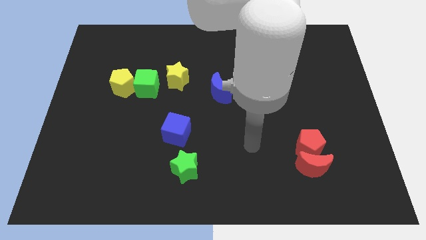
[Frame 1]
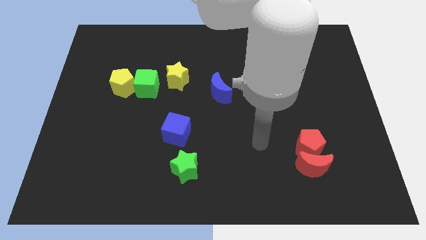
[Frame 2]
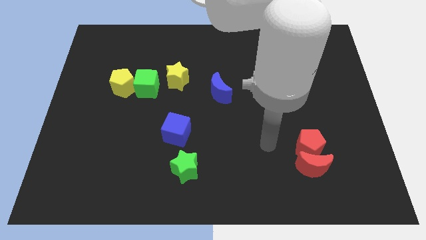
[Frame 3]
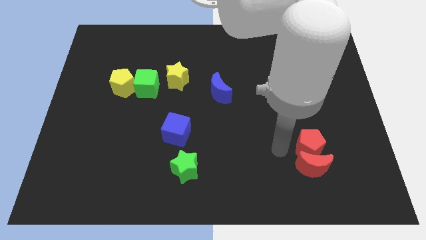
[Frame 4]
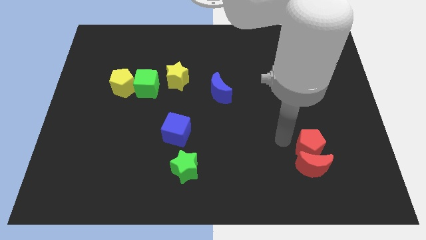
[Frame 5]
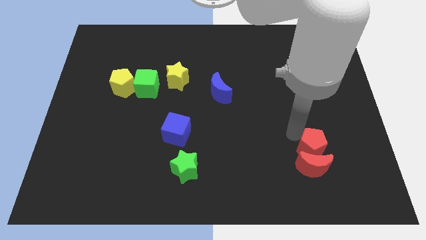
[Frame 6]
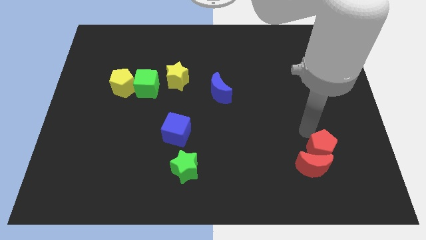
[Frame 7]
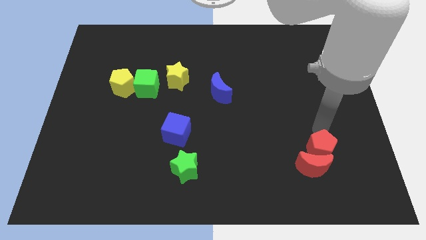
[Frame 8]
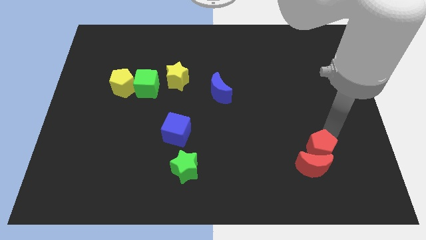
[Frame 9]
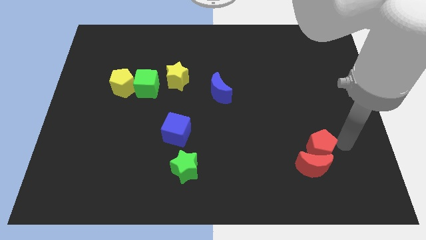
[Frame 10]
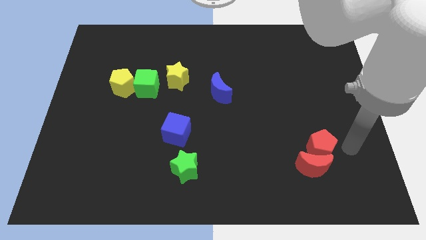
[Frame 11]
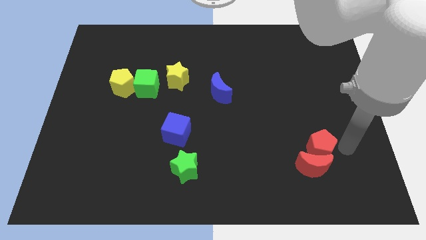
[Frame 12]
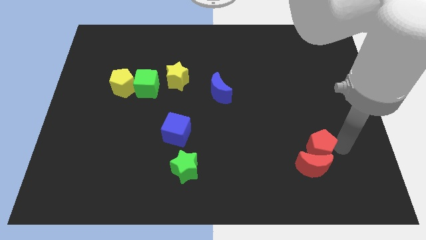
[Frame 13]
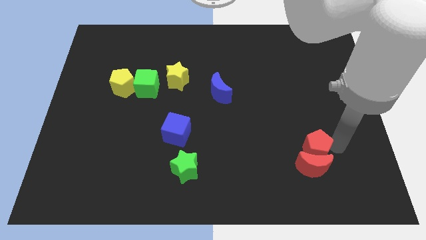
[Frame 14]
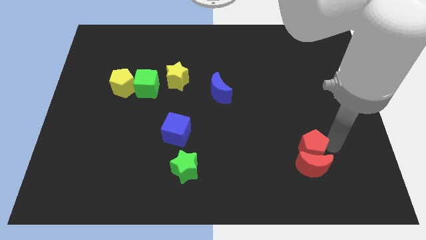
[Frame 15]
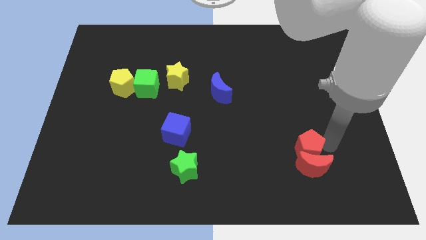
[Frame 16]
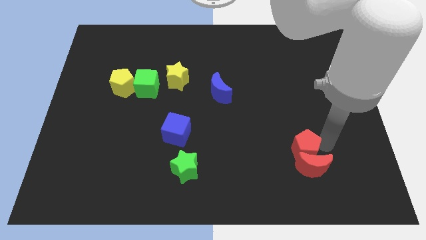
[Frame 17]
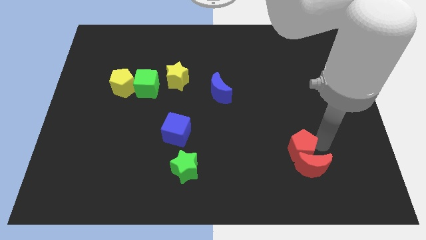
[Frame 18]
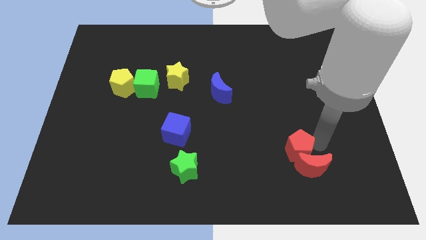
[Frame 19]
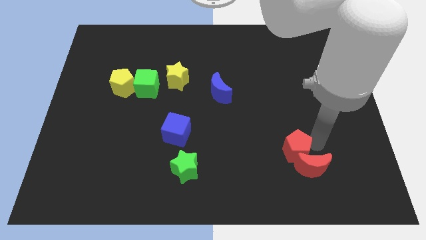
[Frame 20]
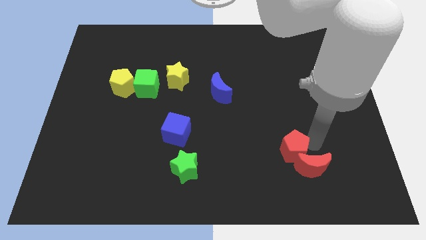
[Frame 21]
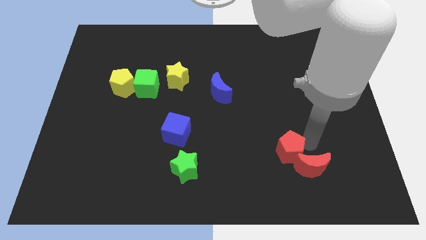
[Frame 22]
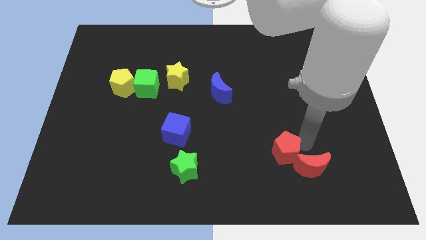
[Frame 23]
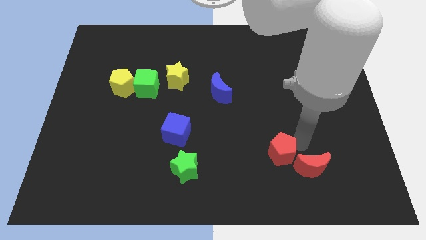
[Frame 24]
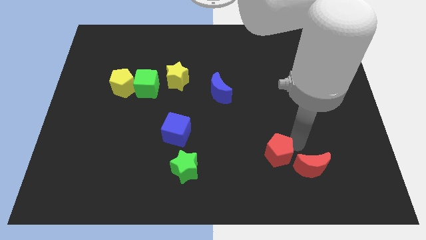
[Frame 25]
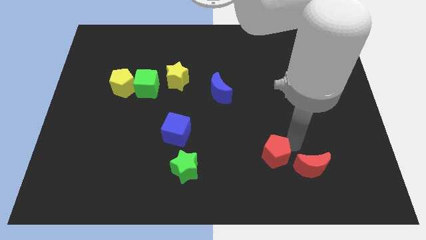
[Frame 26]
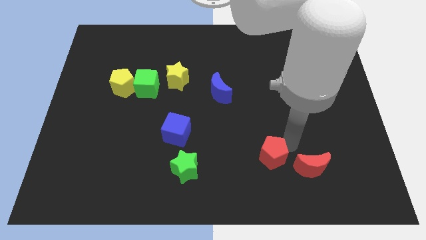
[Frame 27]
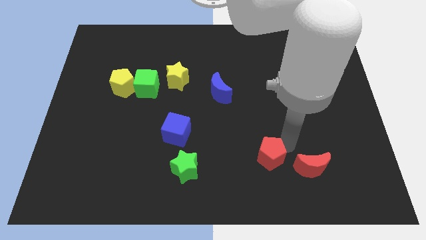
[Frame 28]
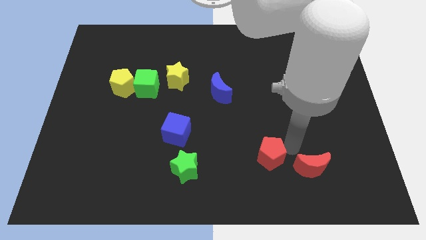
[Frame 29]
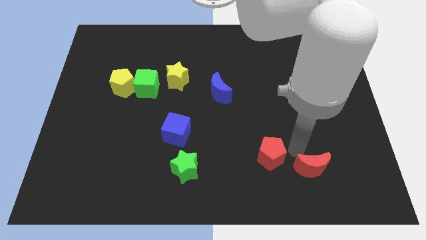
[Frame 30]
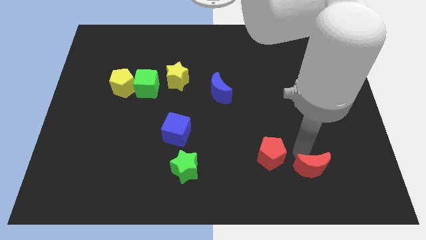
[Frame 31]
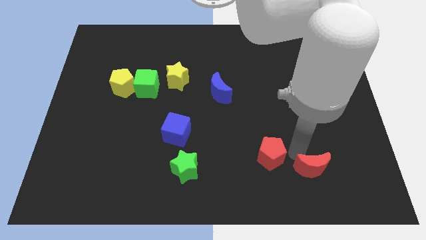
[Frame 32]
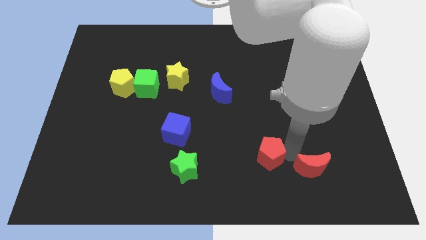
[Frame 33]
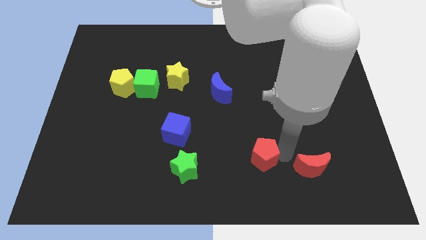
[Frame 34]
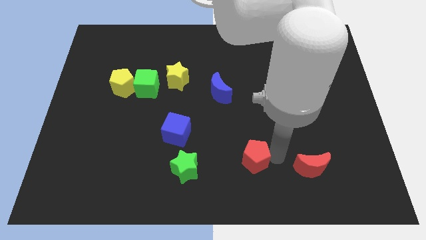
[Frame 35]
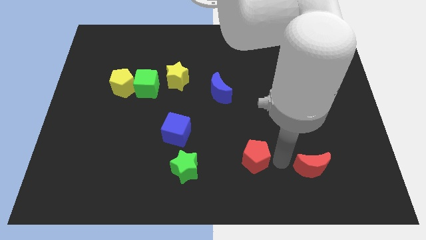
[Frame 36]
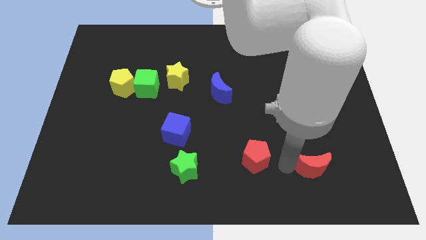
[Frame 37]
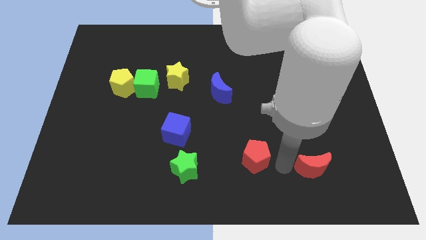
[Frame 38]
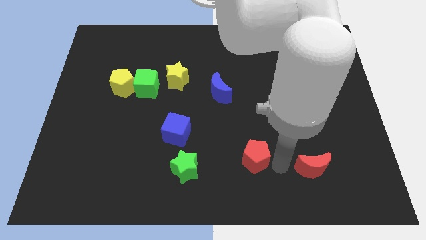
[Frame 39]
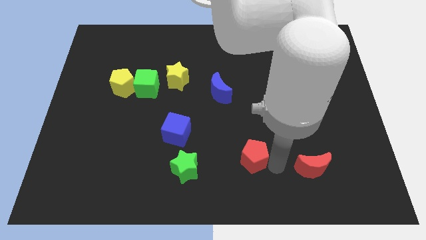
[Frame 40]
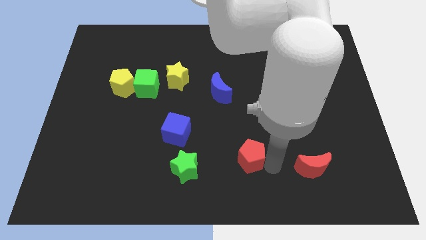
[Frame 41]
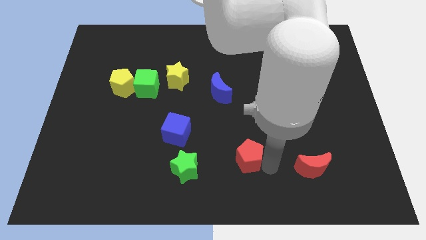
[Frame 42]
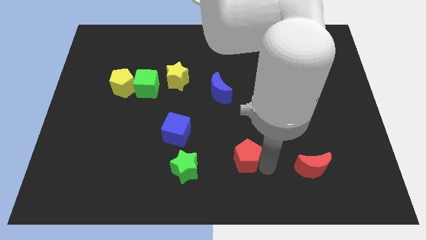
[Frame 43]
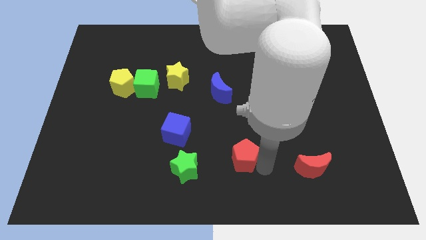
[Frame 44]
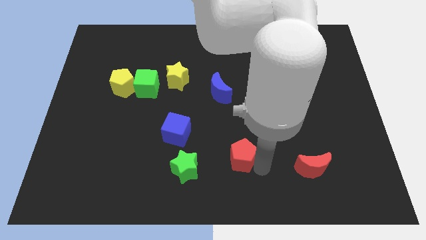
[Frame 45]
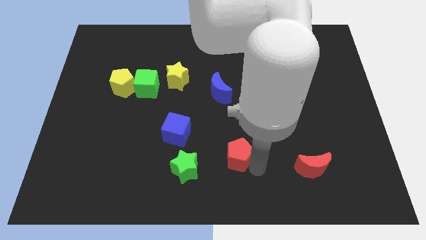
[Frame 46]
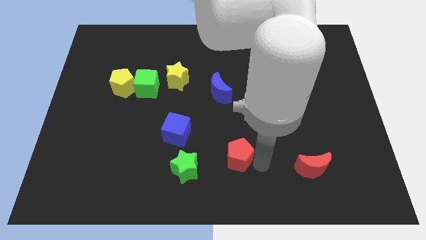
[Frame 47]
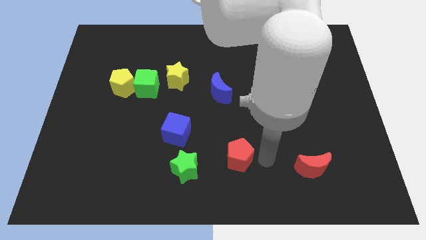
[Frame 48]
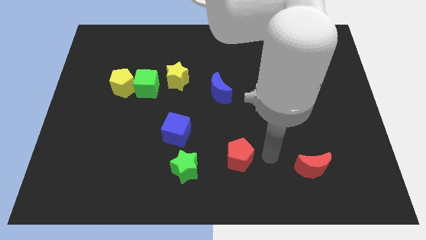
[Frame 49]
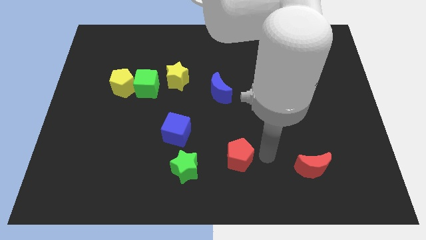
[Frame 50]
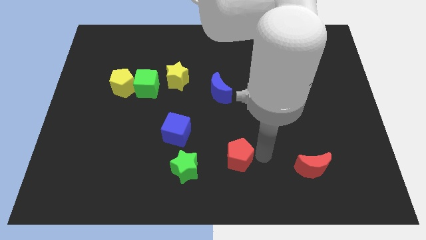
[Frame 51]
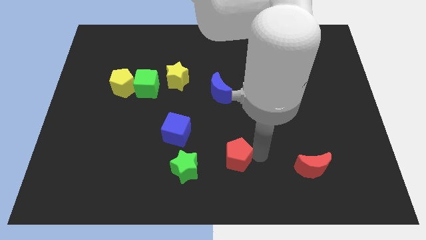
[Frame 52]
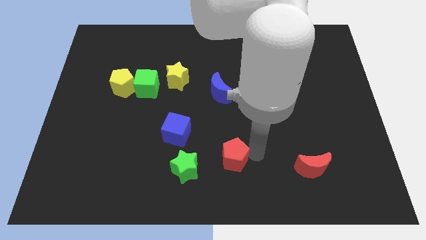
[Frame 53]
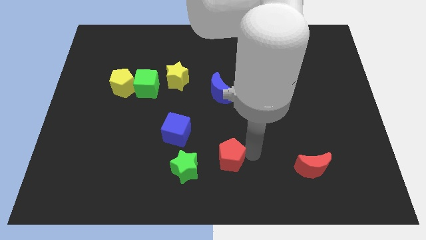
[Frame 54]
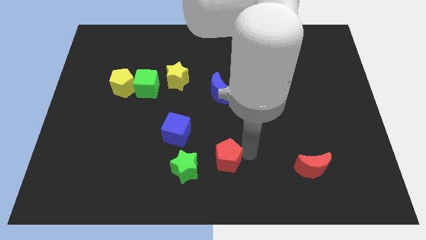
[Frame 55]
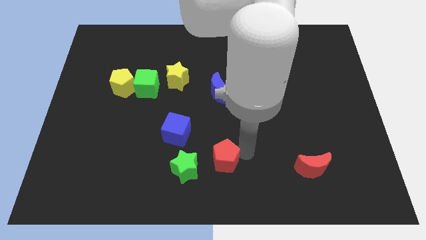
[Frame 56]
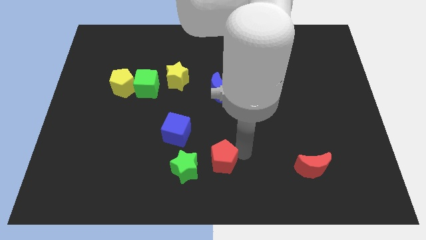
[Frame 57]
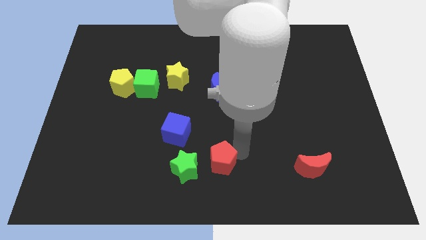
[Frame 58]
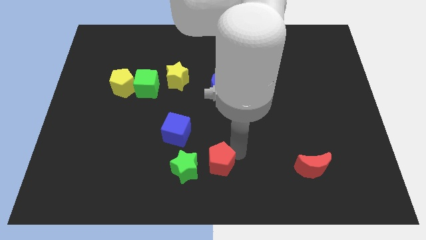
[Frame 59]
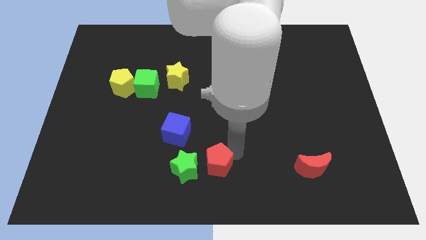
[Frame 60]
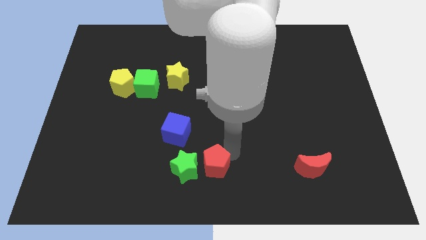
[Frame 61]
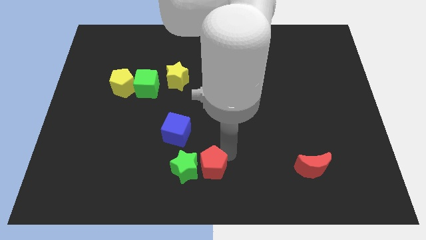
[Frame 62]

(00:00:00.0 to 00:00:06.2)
slide the red pentagon towards the green star
